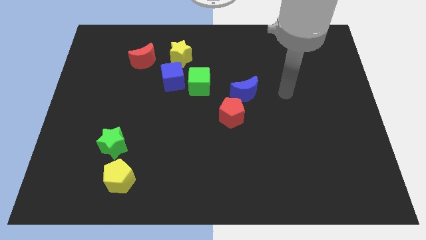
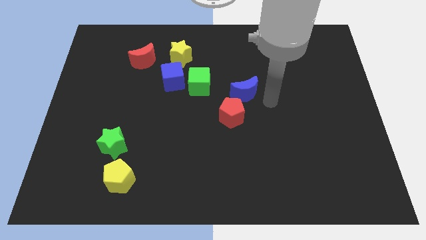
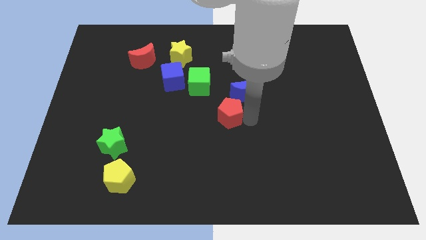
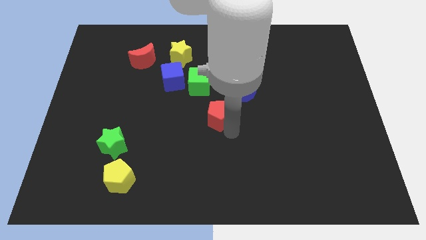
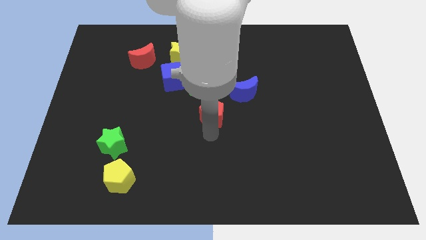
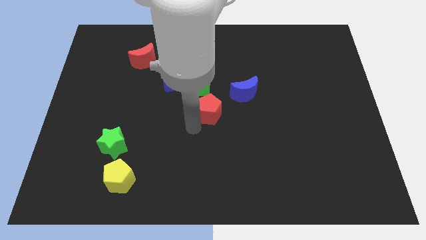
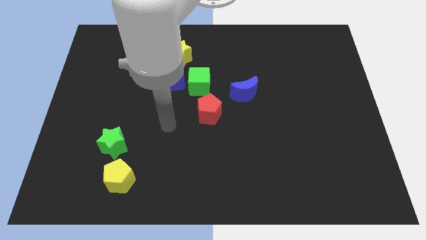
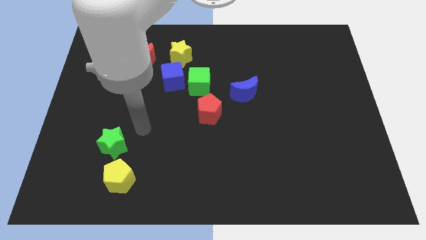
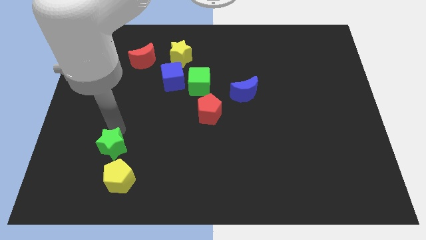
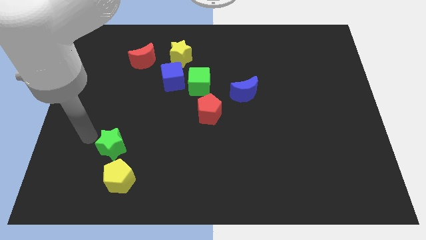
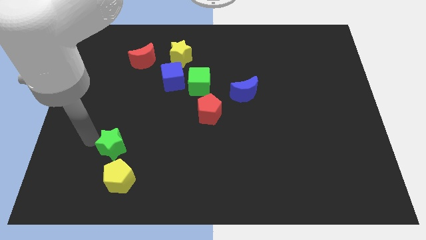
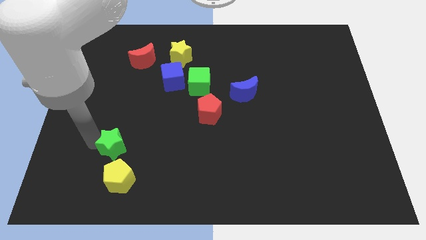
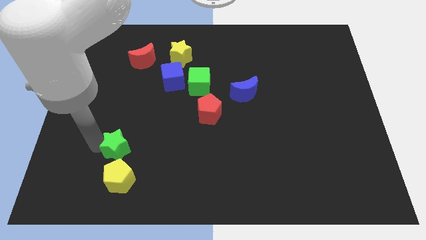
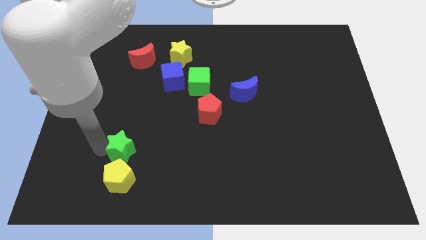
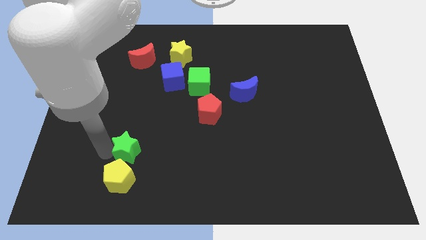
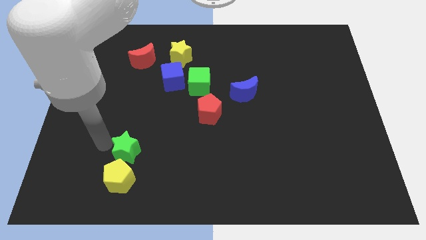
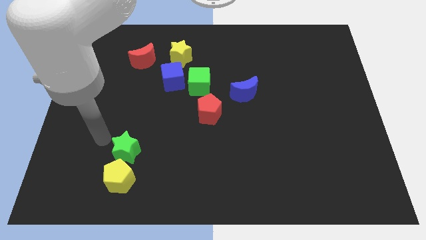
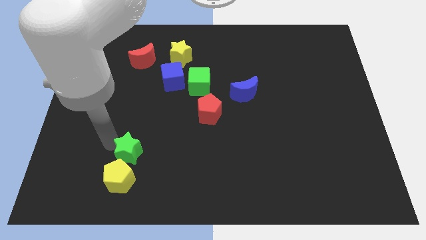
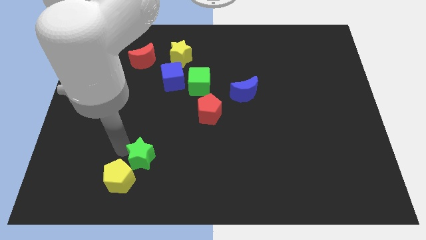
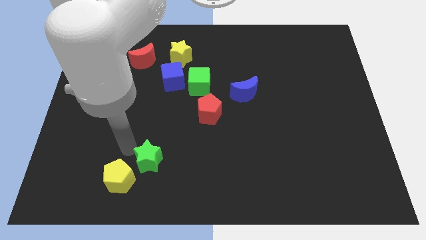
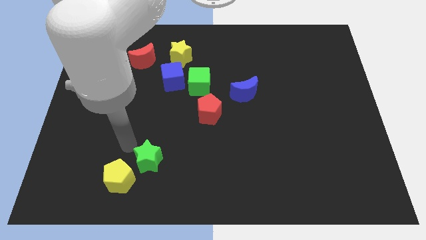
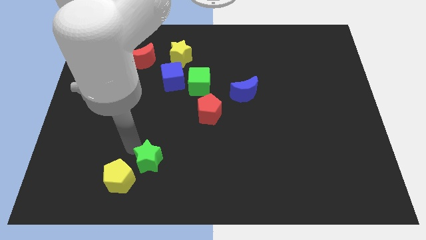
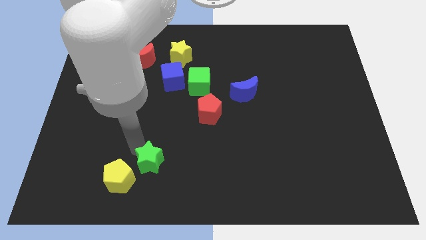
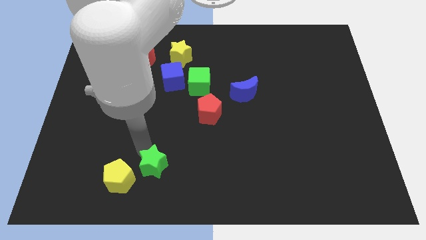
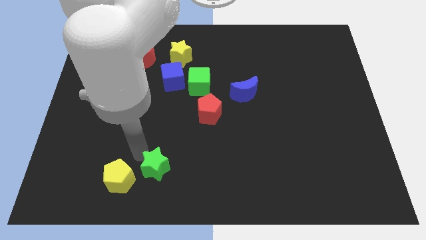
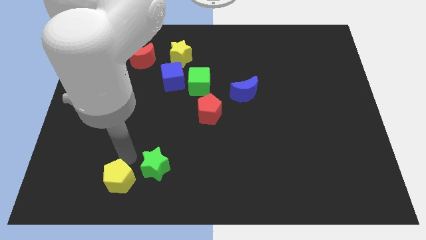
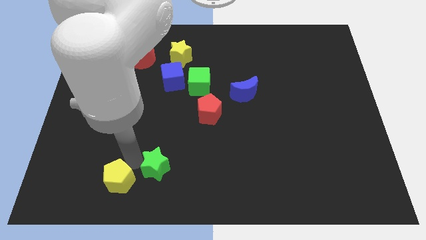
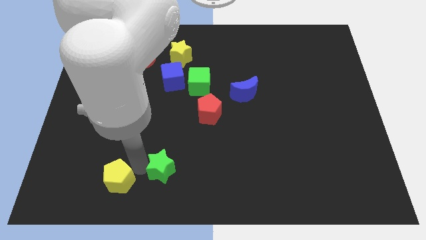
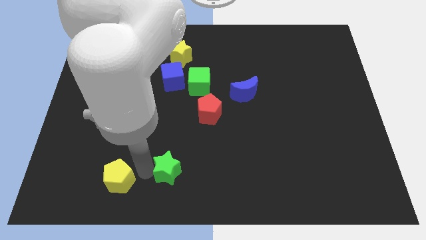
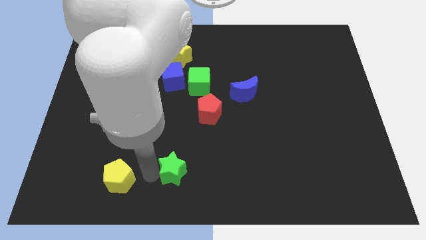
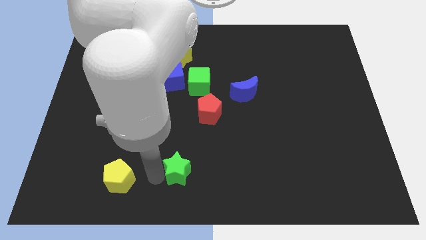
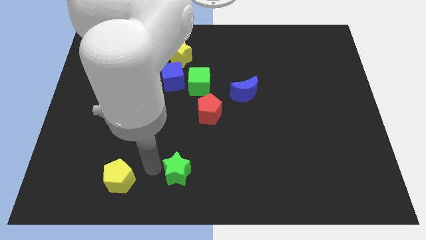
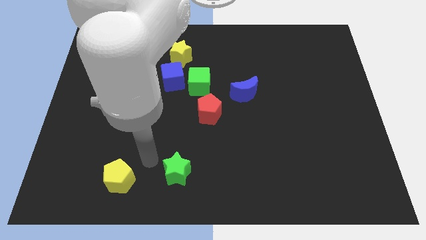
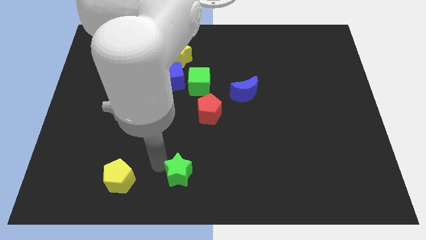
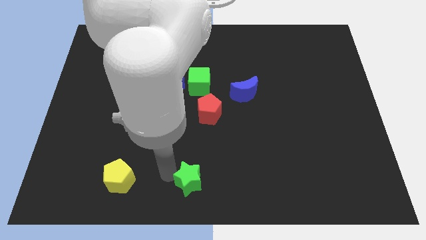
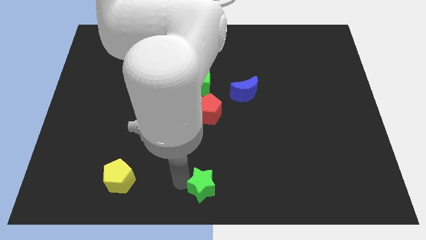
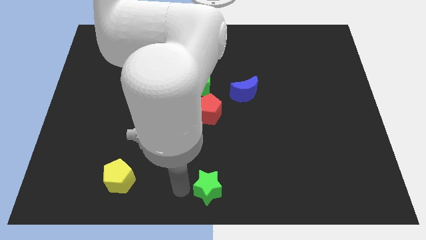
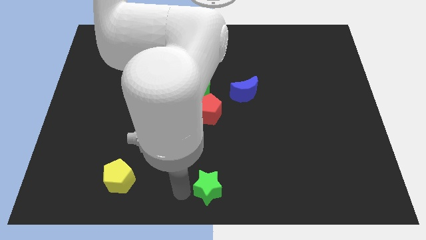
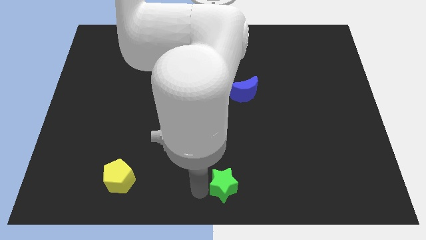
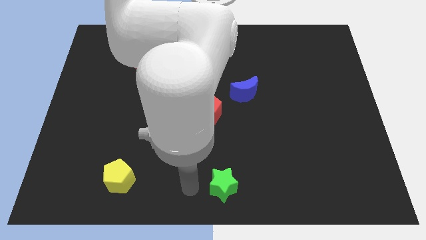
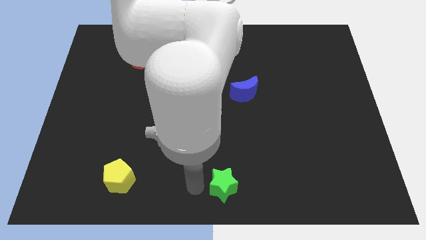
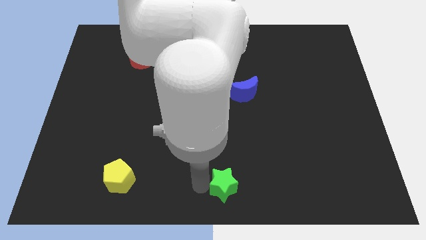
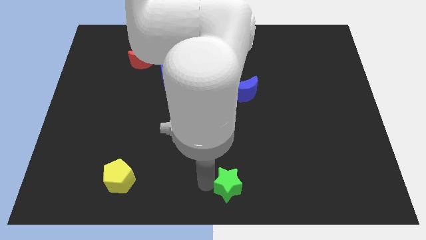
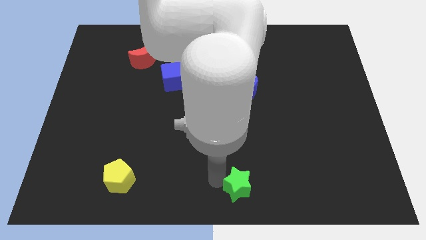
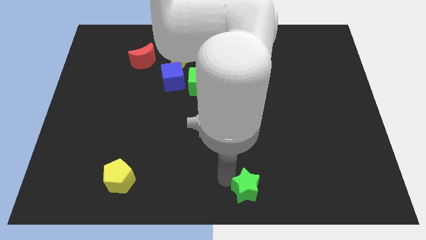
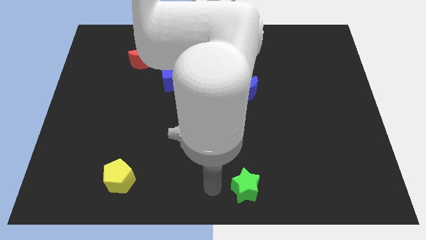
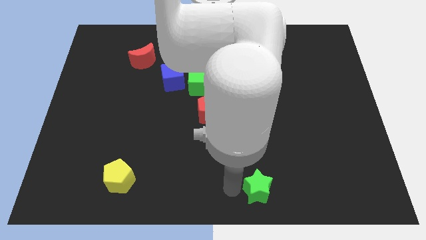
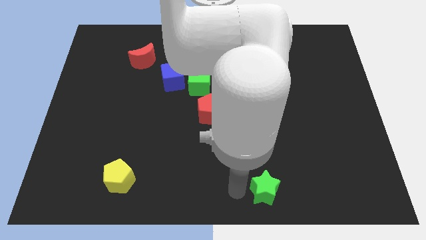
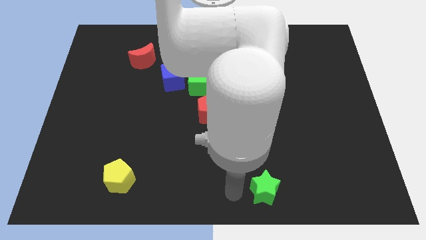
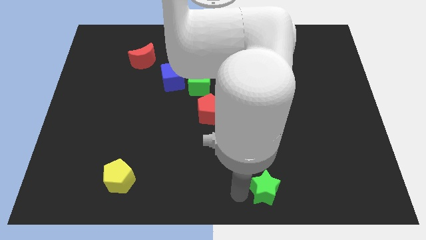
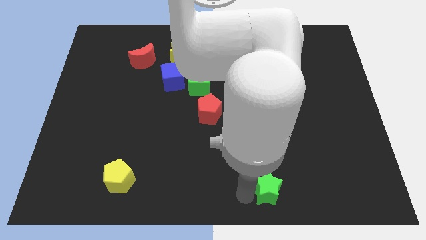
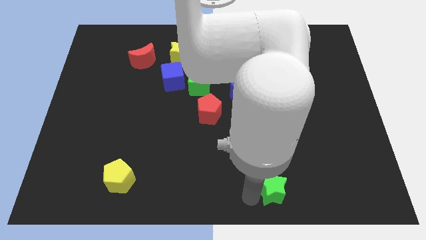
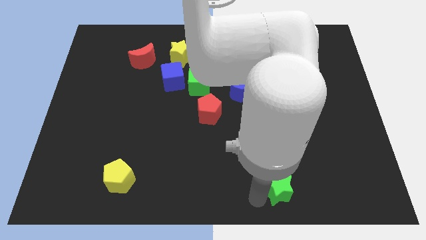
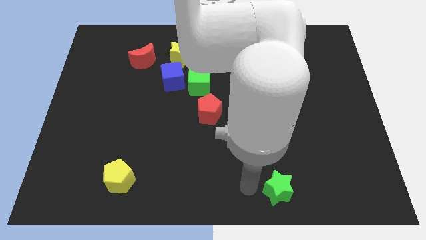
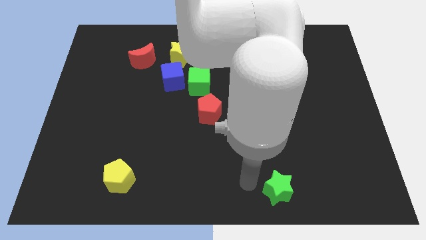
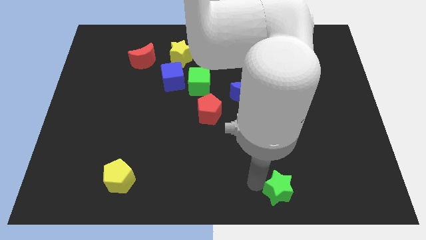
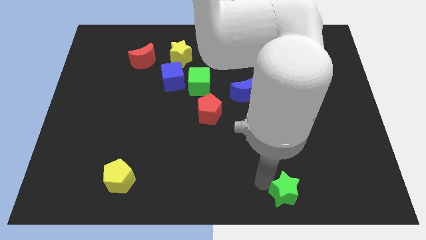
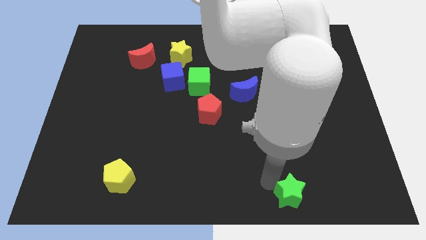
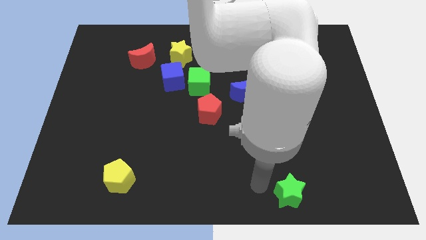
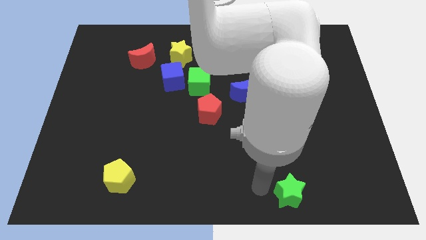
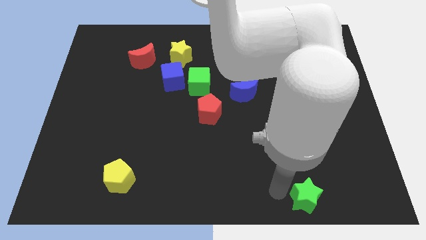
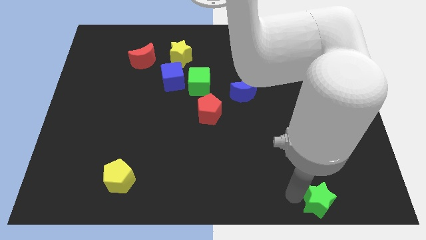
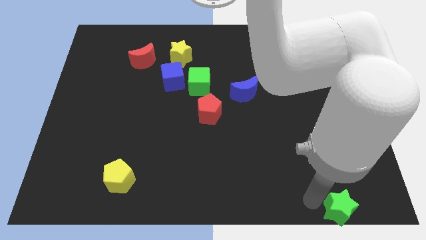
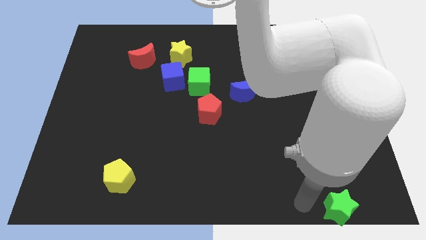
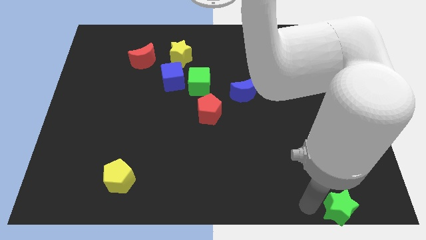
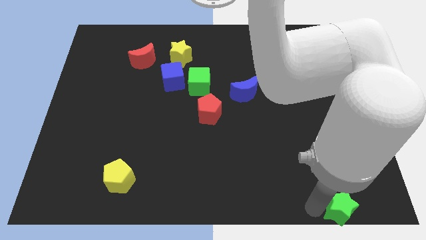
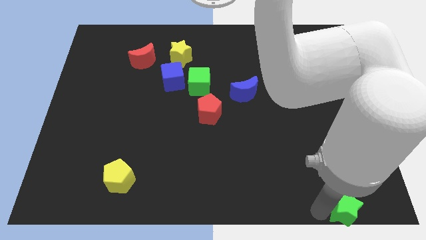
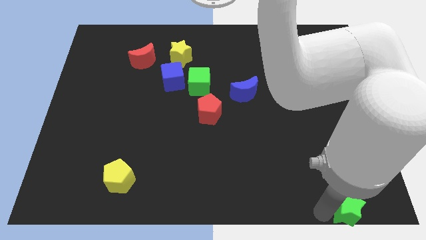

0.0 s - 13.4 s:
put the green star to the bottom right
